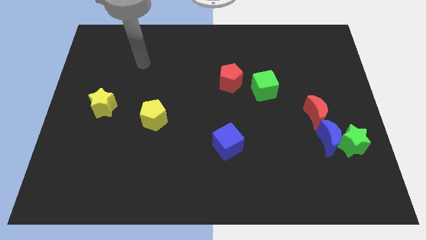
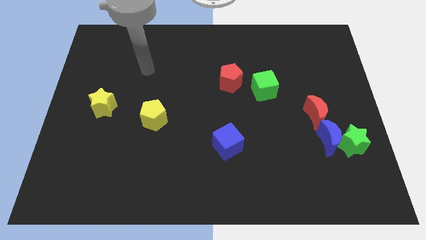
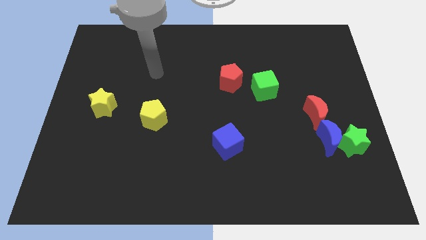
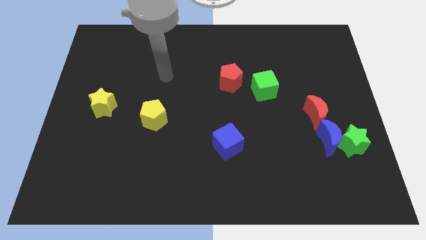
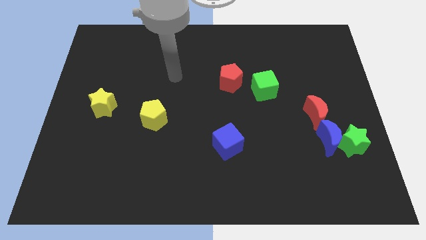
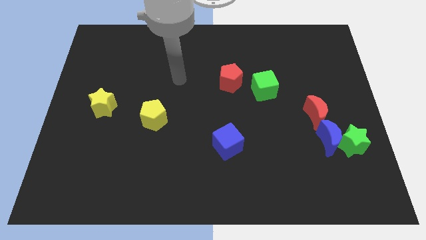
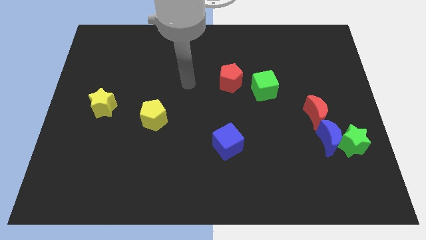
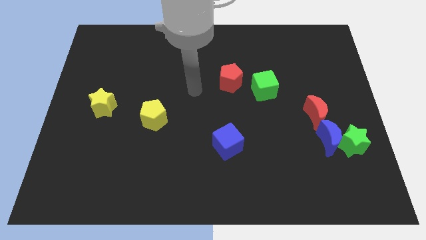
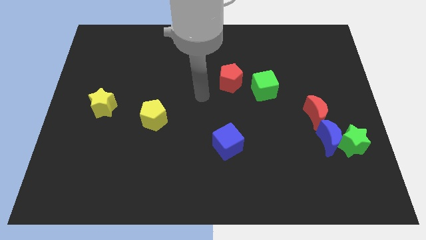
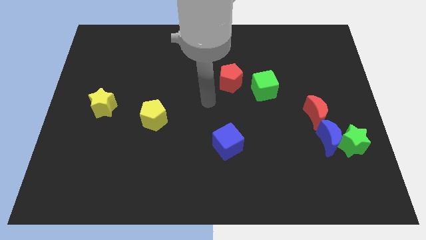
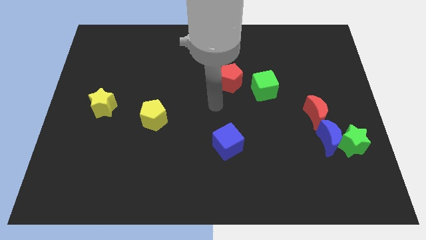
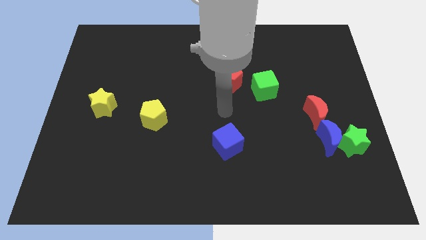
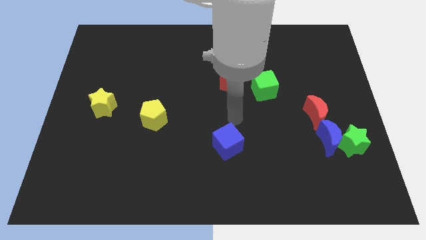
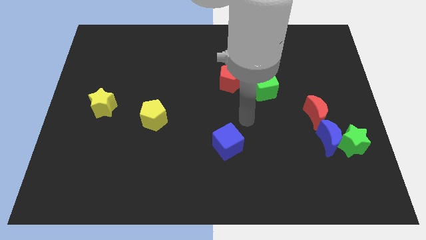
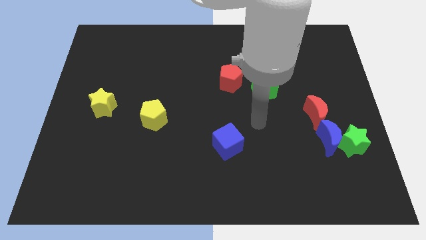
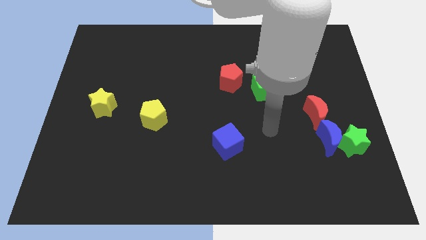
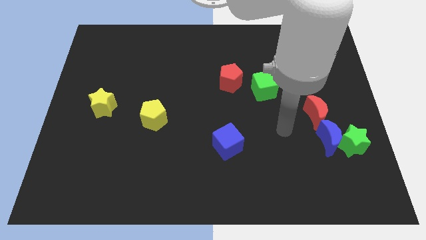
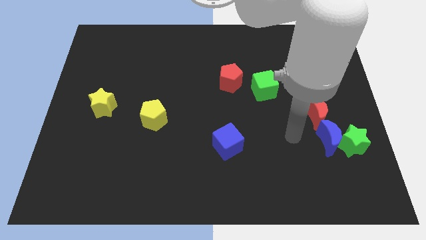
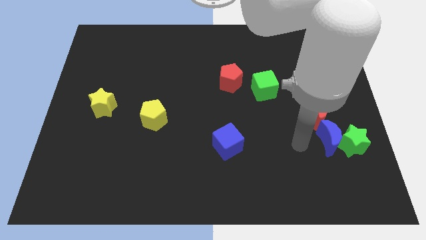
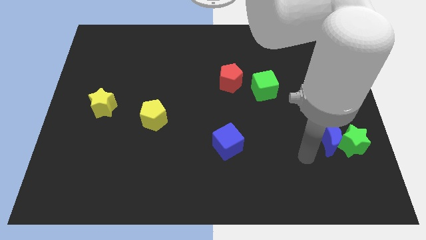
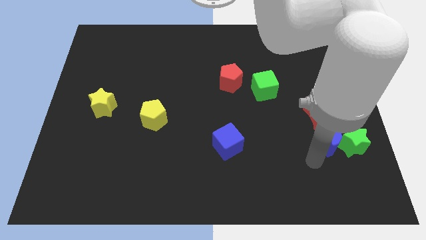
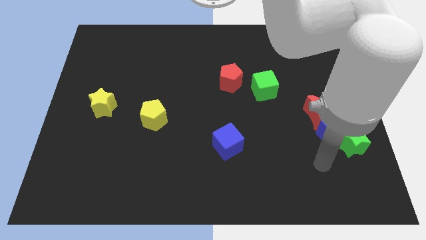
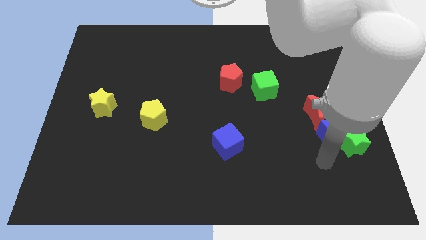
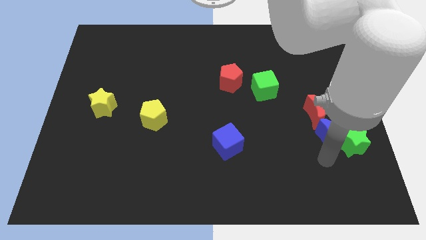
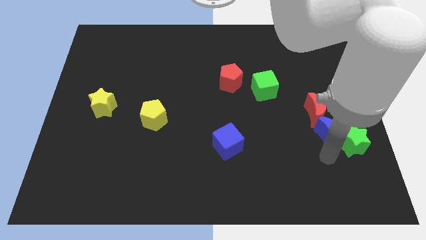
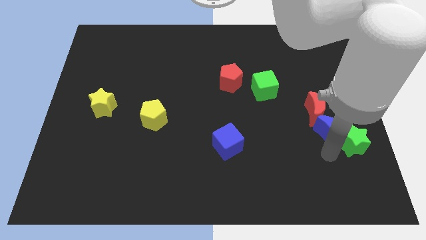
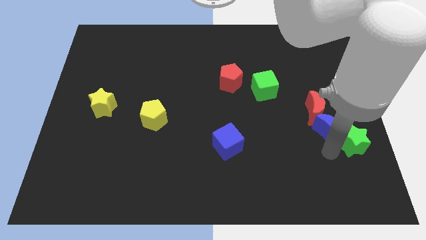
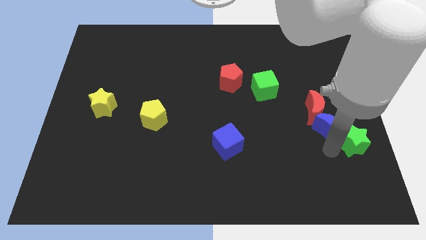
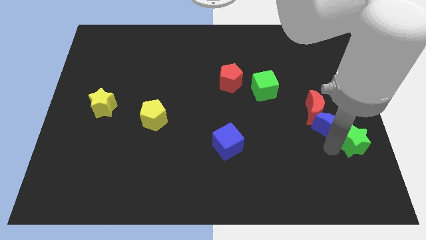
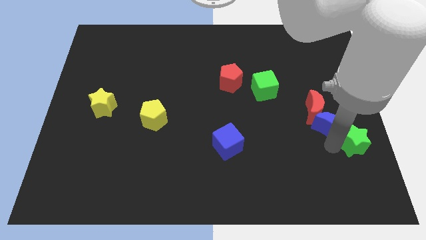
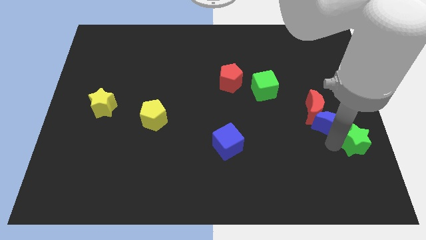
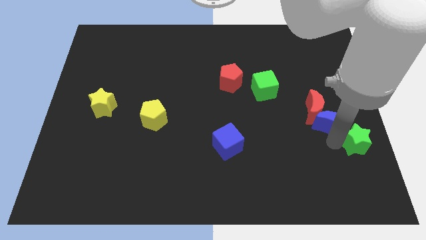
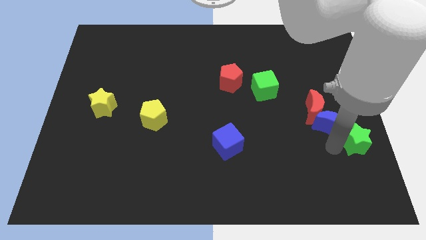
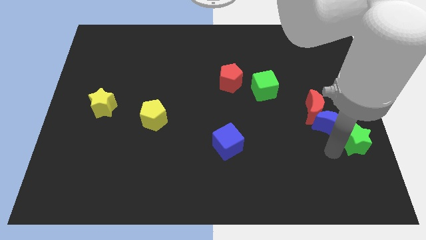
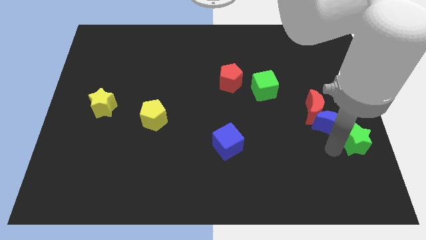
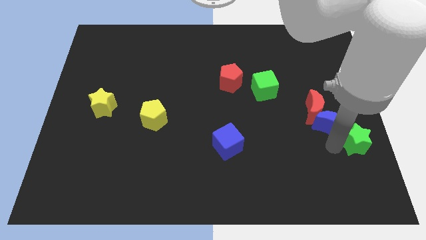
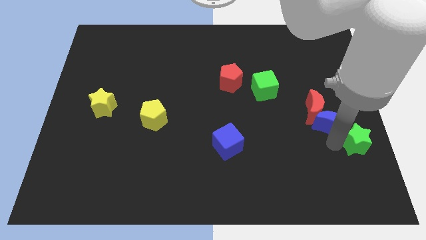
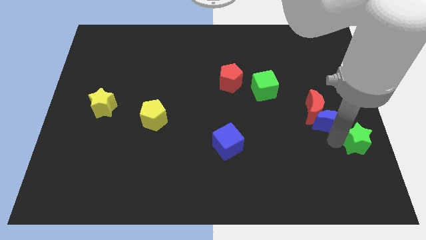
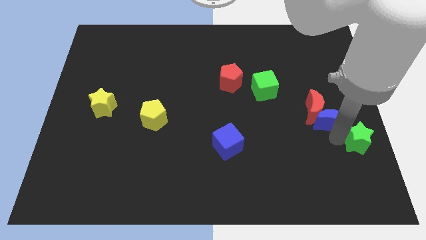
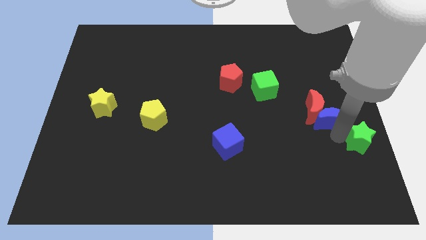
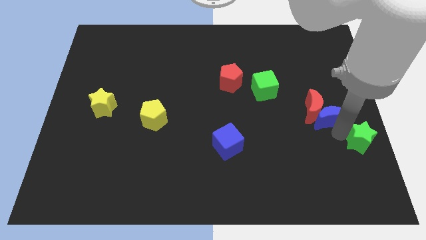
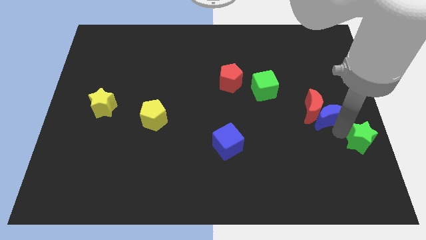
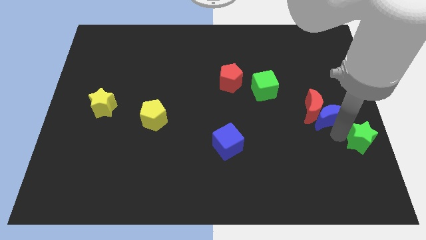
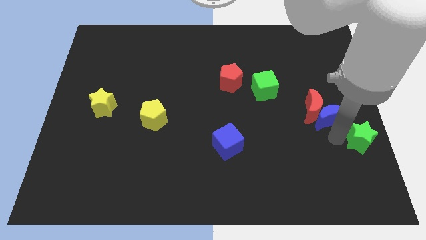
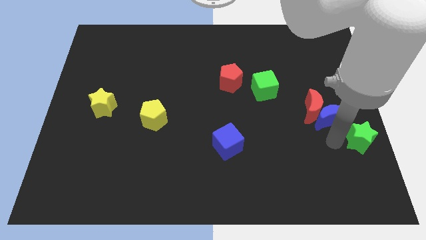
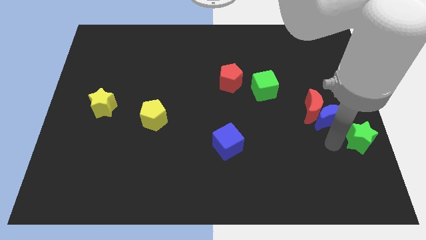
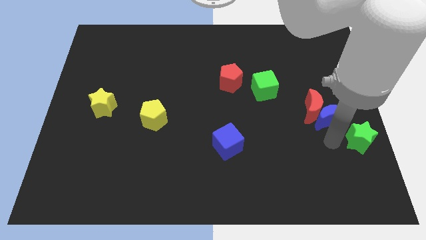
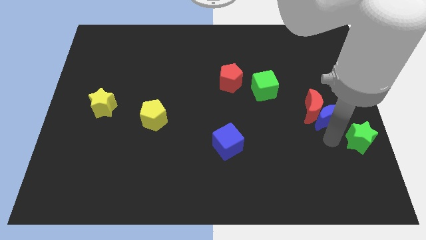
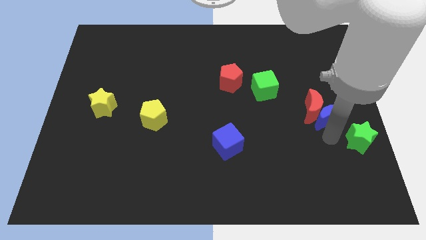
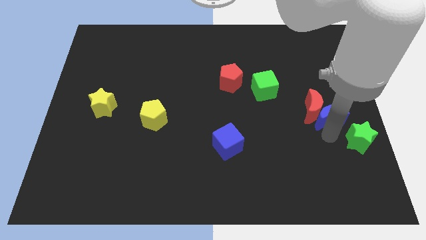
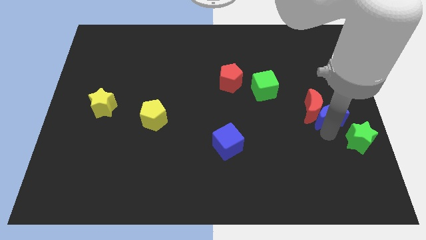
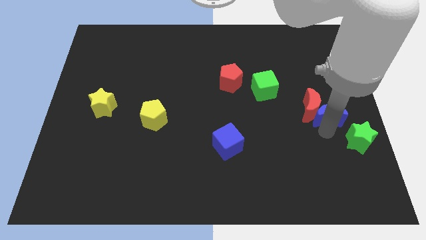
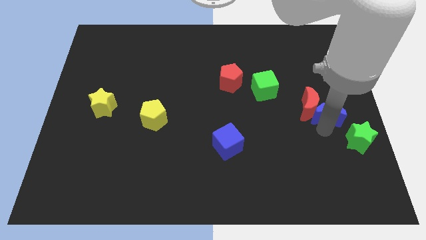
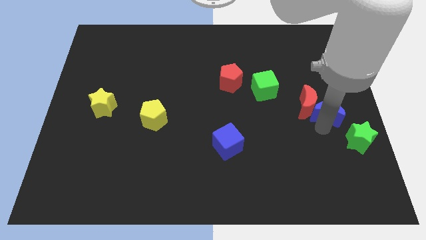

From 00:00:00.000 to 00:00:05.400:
slide the blue moon somewhat up

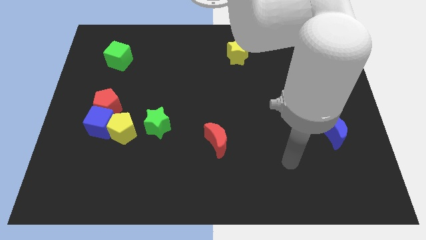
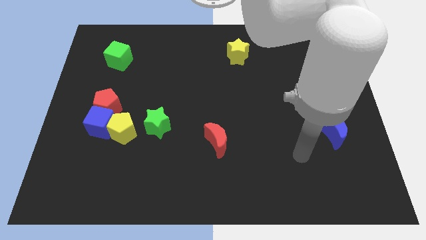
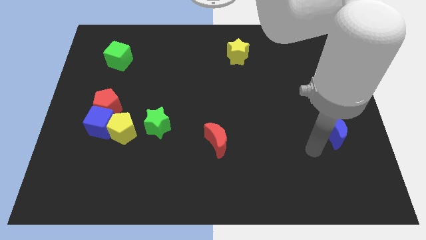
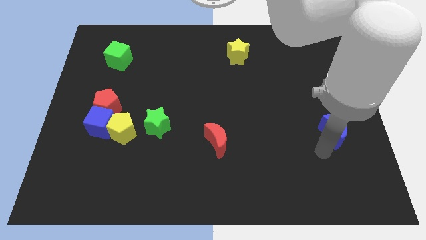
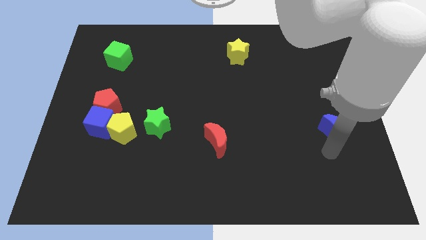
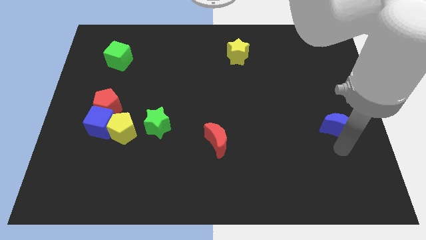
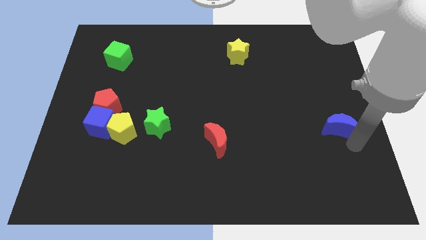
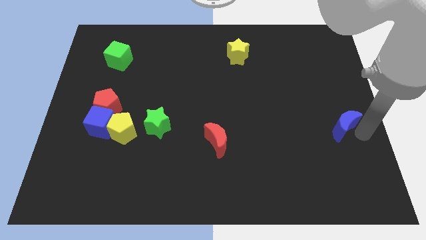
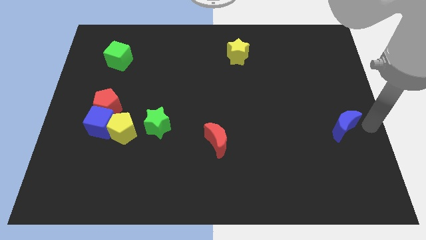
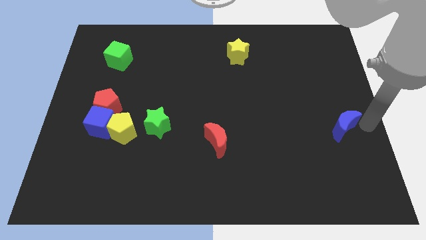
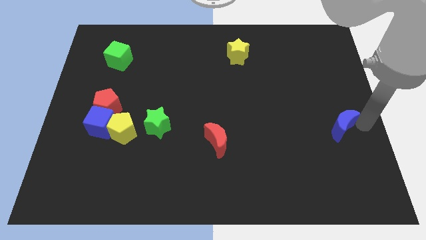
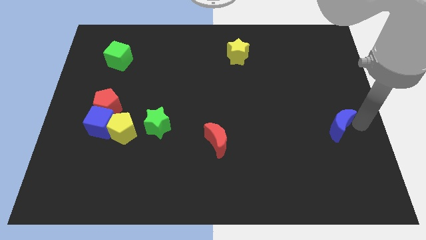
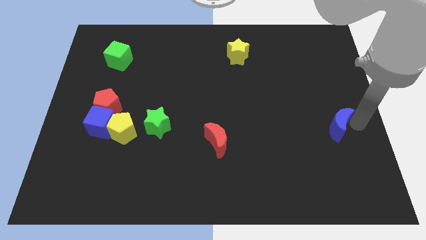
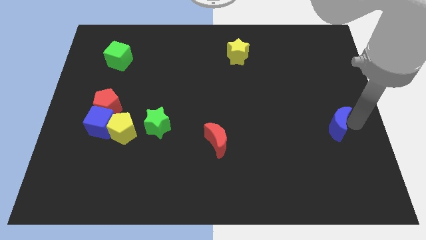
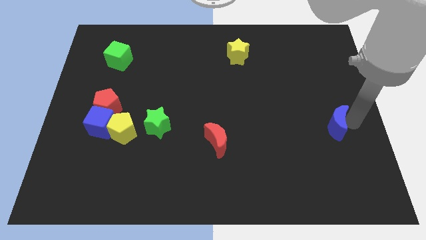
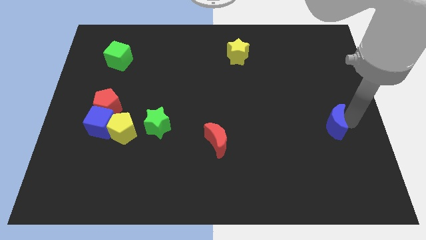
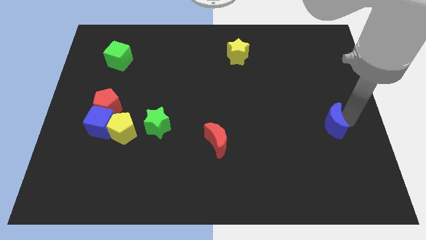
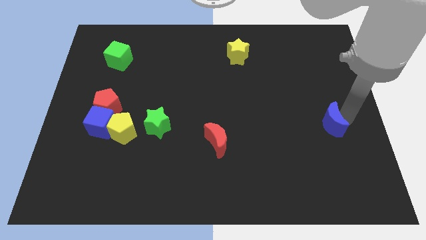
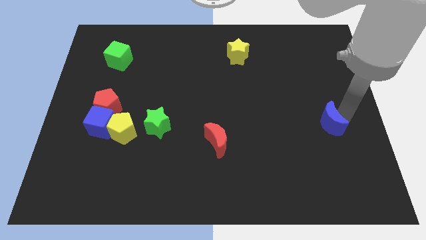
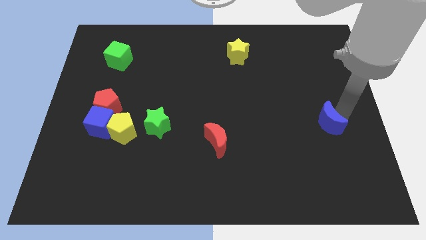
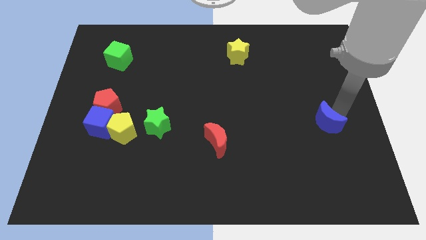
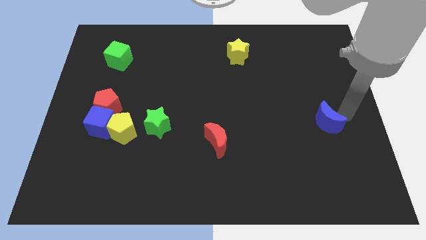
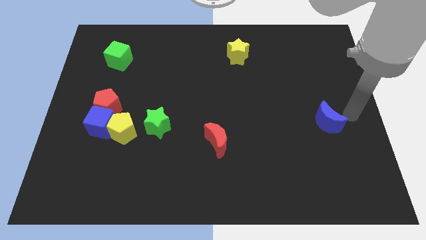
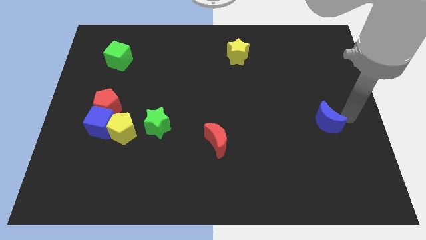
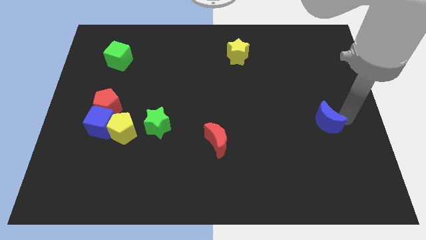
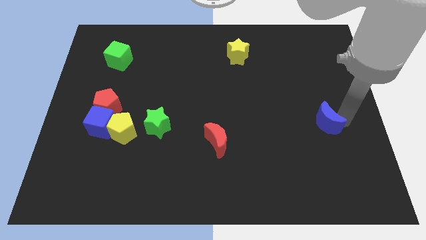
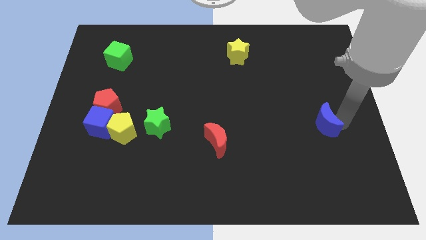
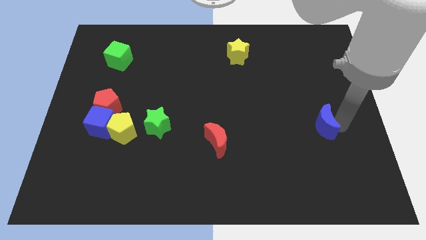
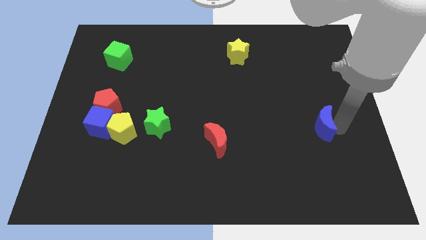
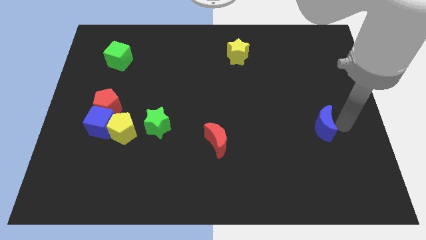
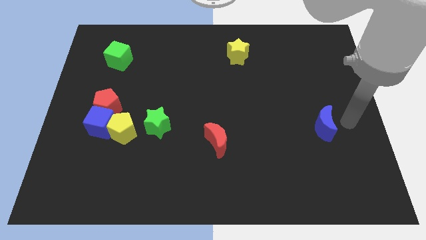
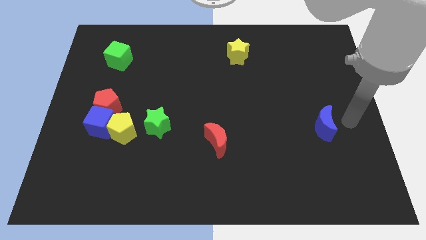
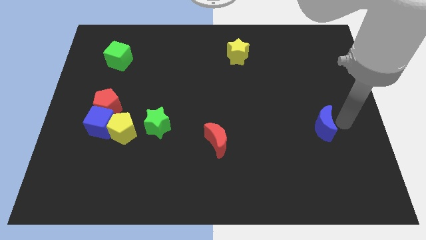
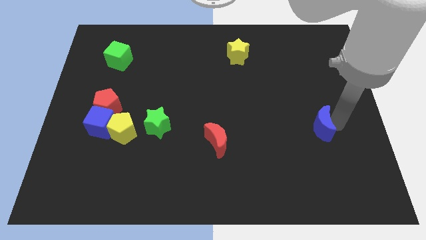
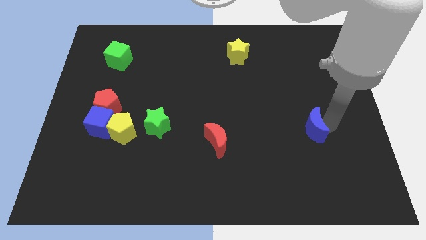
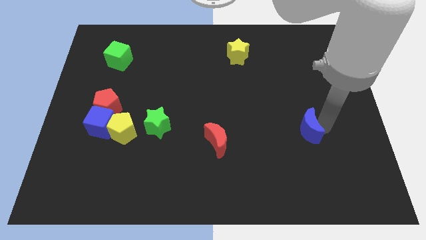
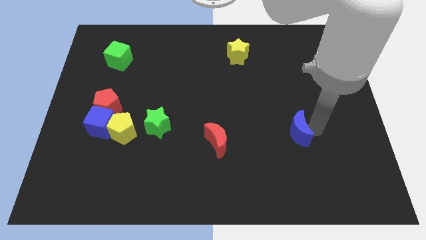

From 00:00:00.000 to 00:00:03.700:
push the blue moon somewhat left
